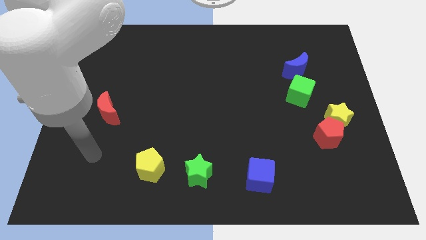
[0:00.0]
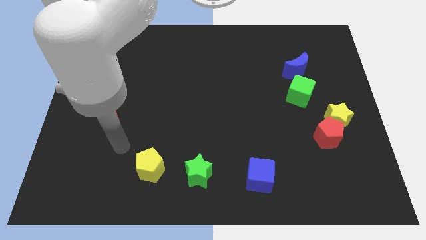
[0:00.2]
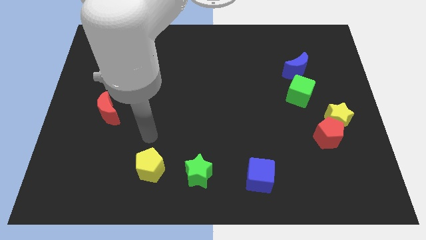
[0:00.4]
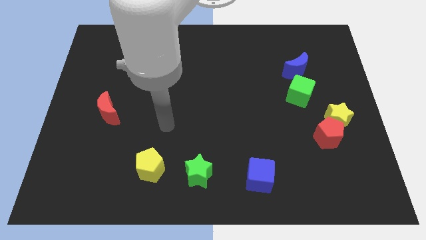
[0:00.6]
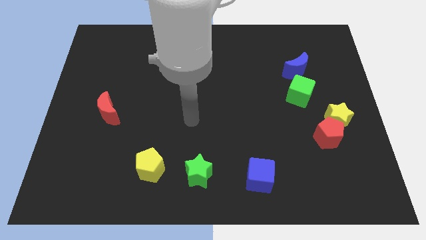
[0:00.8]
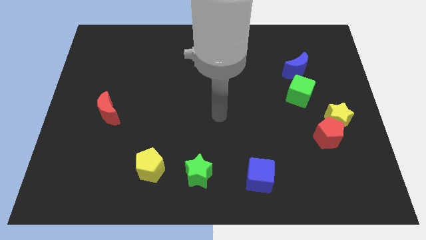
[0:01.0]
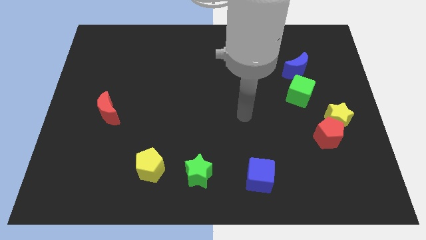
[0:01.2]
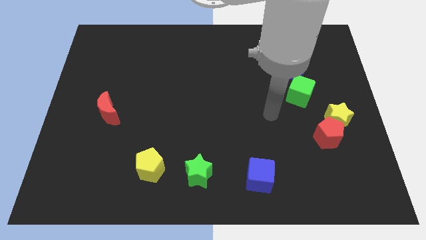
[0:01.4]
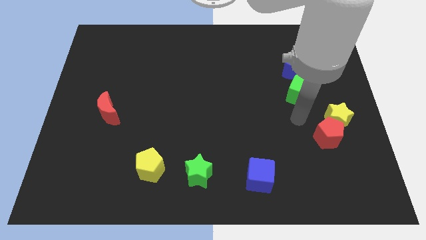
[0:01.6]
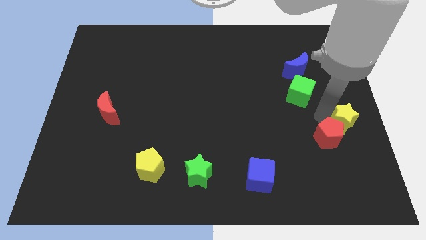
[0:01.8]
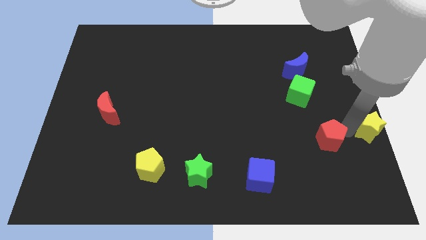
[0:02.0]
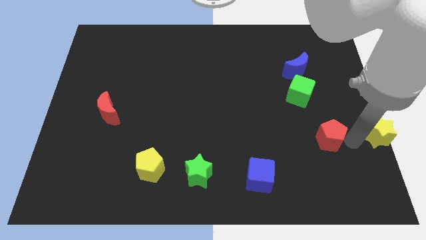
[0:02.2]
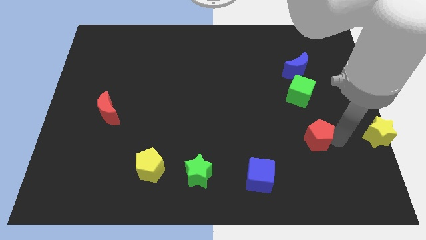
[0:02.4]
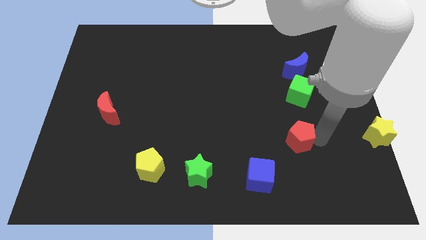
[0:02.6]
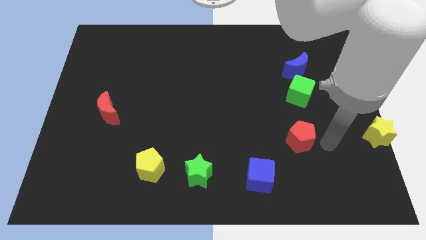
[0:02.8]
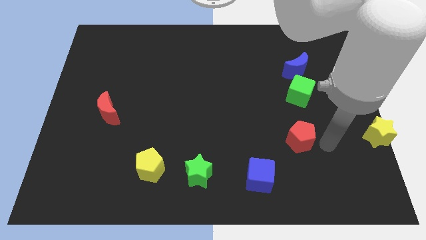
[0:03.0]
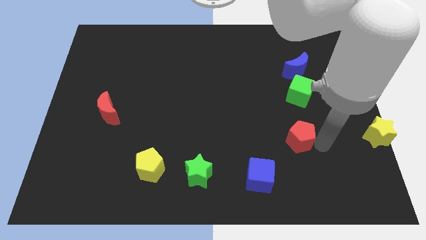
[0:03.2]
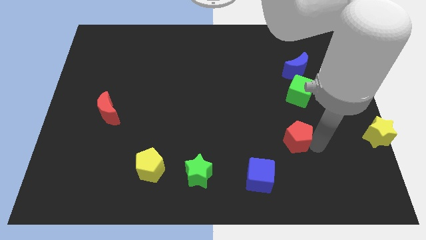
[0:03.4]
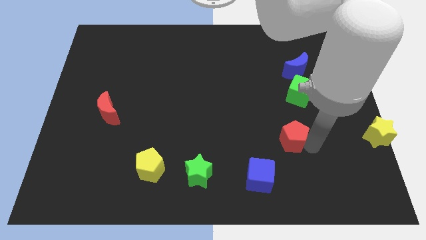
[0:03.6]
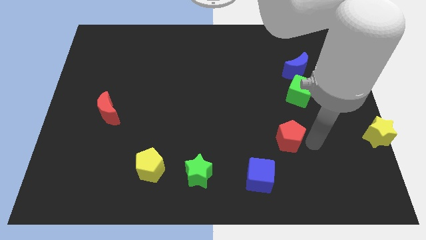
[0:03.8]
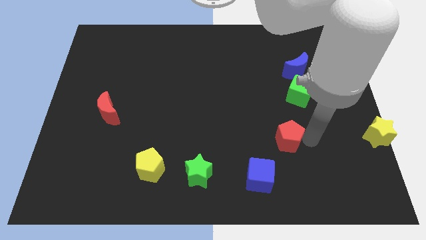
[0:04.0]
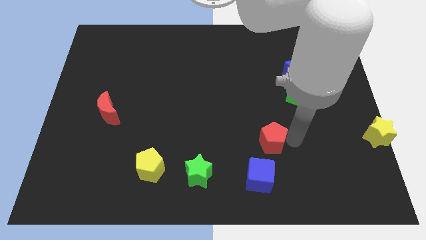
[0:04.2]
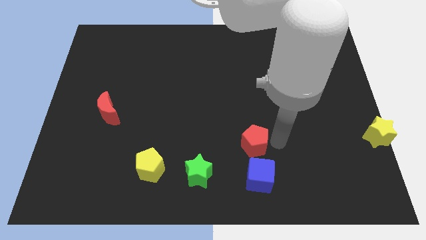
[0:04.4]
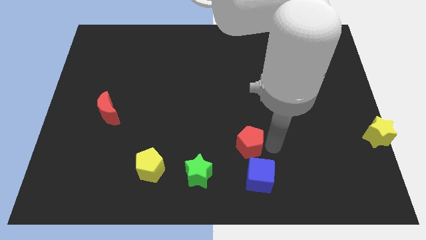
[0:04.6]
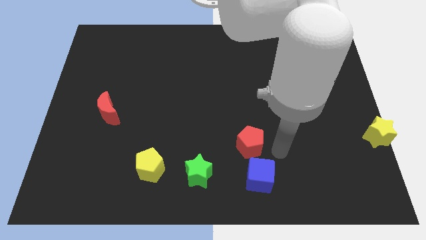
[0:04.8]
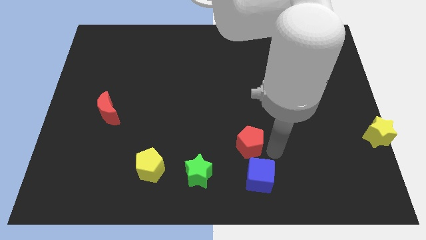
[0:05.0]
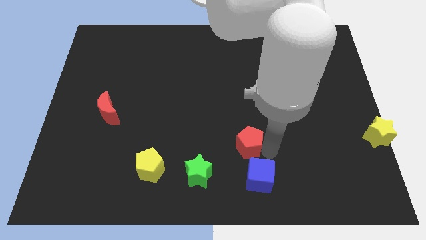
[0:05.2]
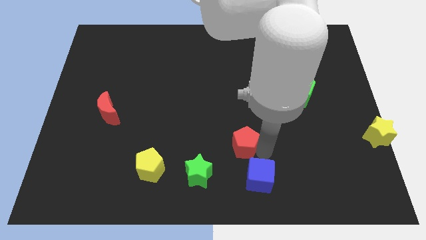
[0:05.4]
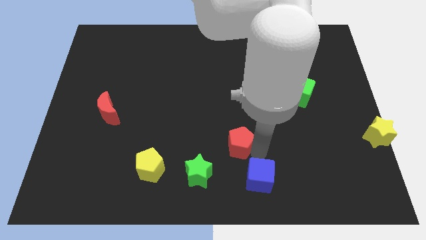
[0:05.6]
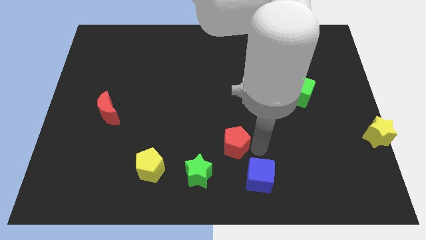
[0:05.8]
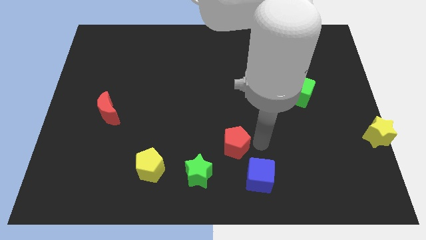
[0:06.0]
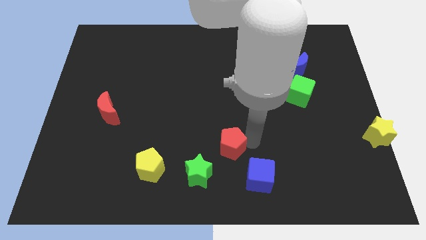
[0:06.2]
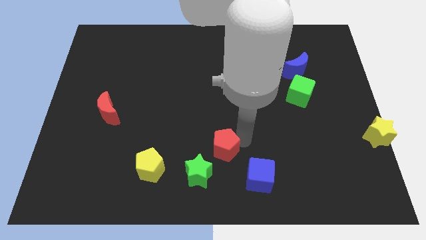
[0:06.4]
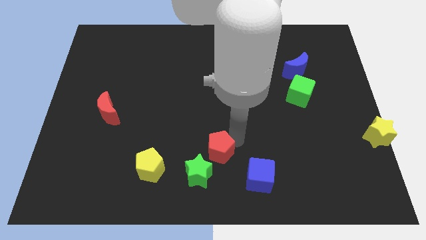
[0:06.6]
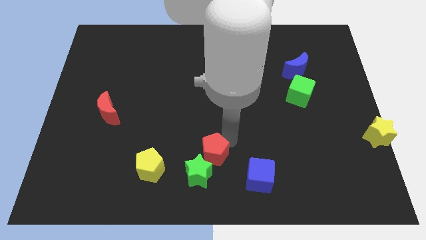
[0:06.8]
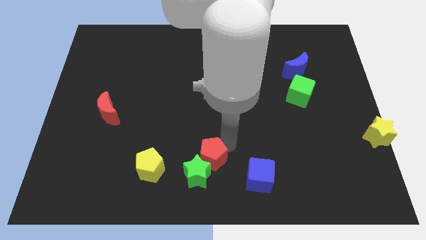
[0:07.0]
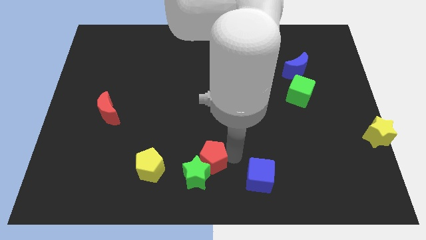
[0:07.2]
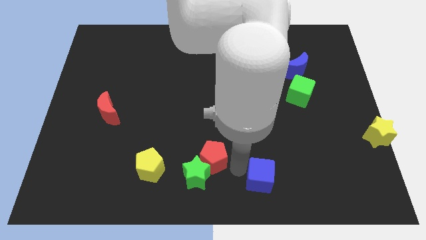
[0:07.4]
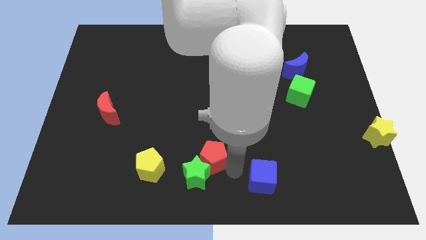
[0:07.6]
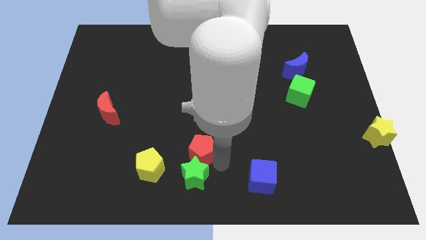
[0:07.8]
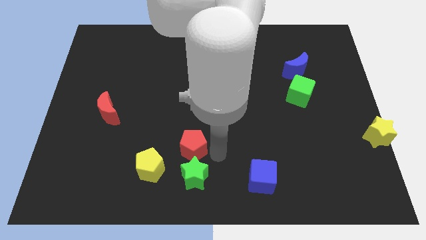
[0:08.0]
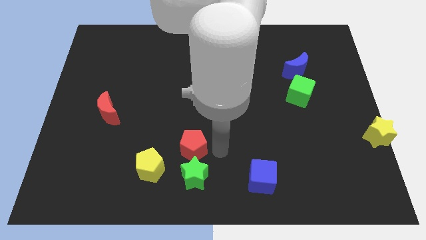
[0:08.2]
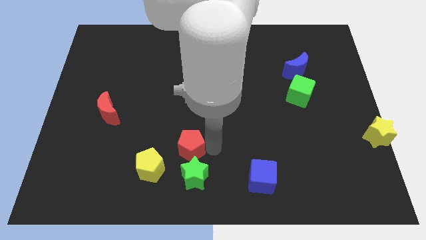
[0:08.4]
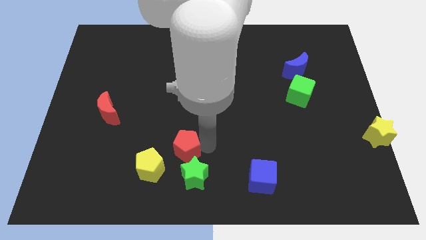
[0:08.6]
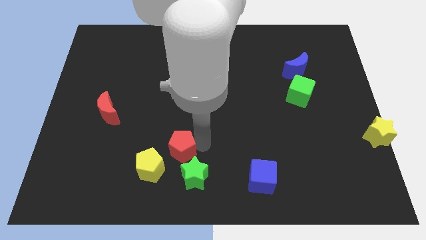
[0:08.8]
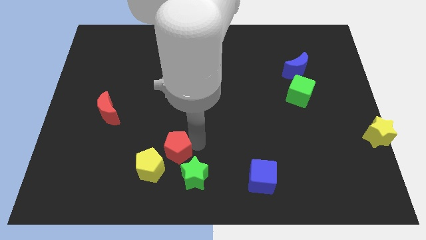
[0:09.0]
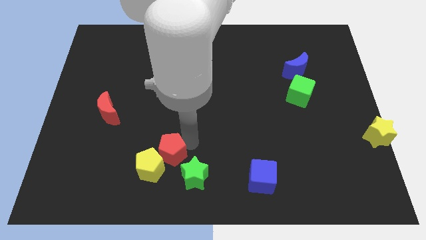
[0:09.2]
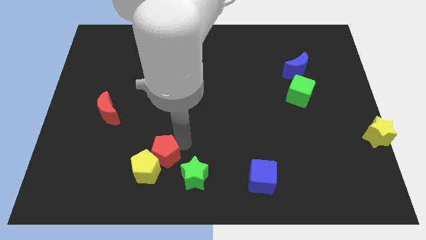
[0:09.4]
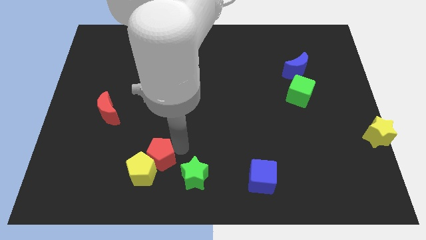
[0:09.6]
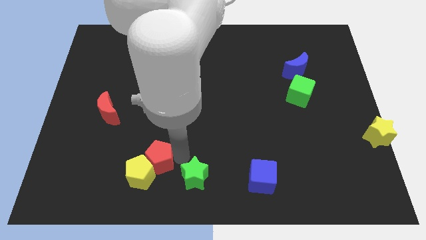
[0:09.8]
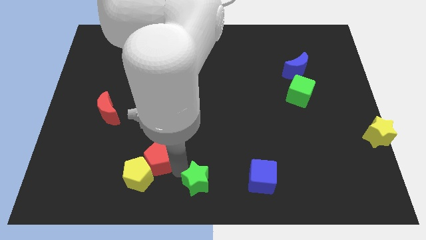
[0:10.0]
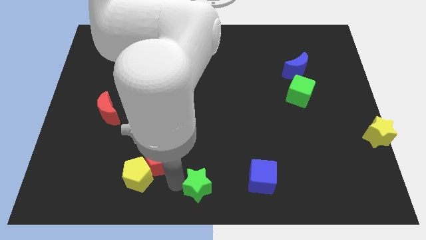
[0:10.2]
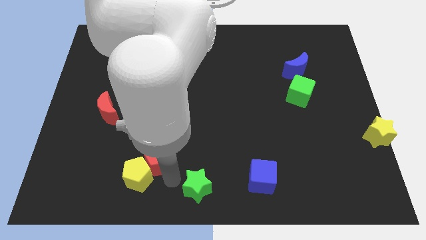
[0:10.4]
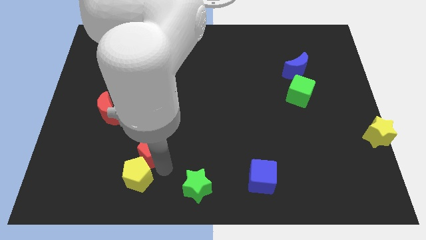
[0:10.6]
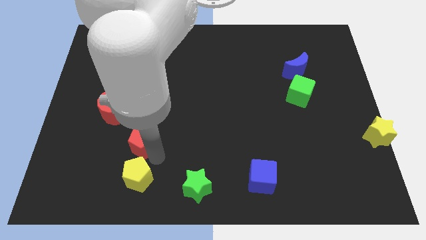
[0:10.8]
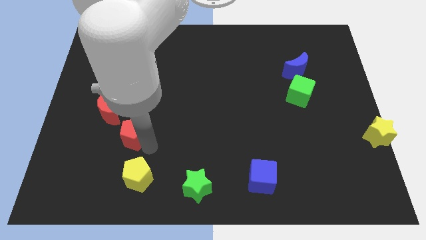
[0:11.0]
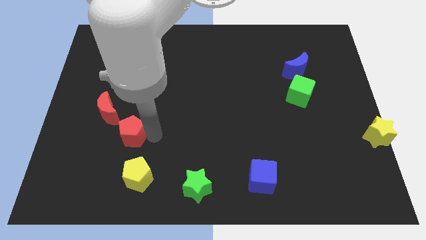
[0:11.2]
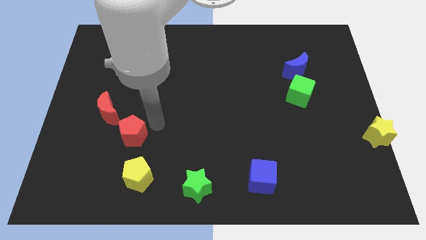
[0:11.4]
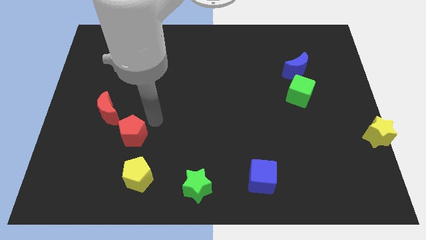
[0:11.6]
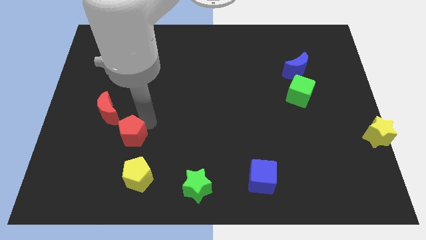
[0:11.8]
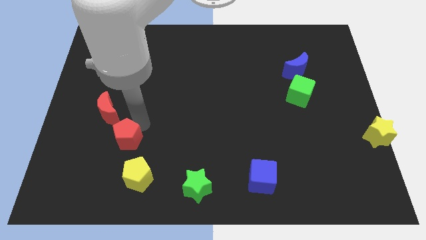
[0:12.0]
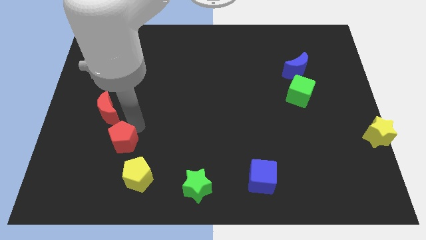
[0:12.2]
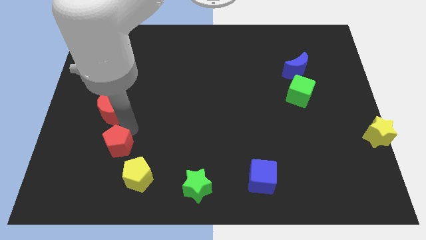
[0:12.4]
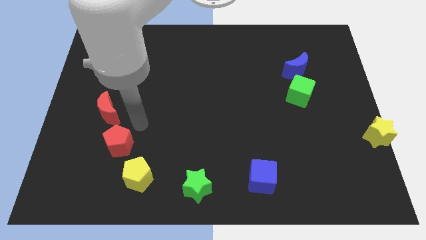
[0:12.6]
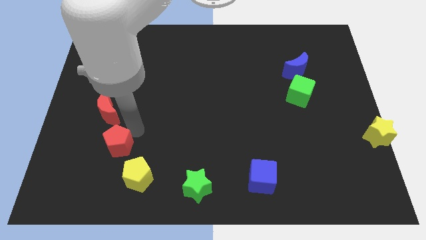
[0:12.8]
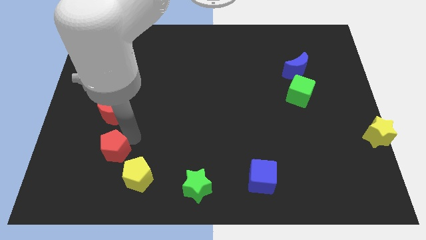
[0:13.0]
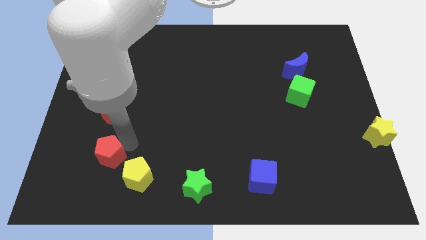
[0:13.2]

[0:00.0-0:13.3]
put the red pentagon to the left of the yellow pentagon

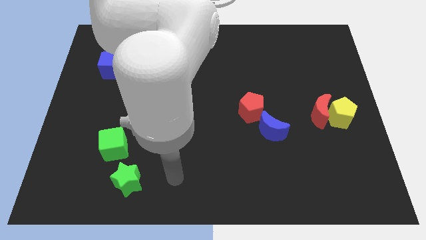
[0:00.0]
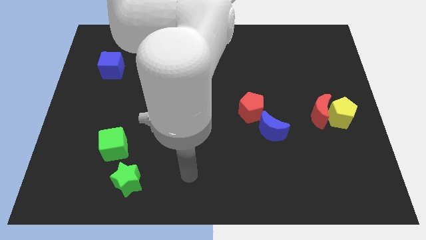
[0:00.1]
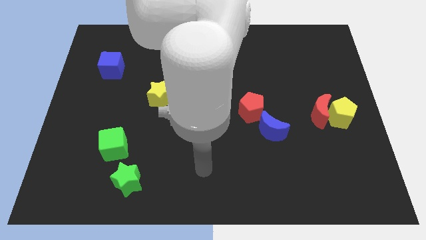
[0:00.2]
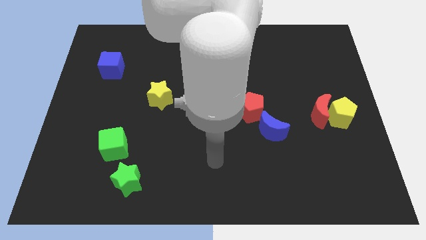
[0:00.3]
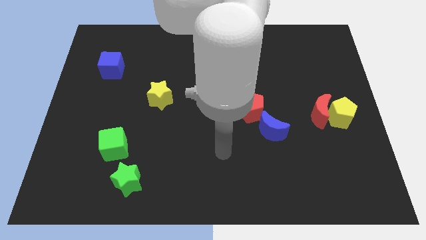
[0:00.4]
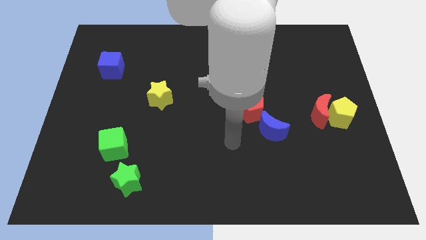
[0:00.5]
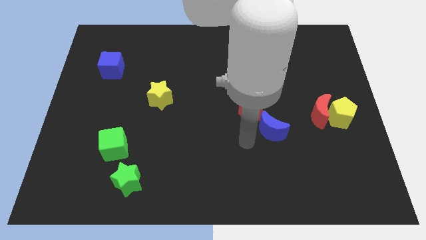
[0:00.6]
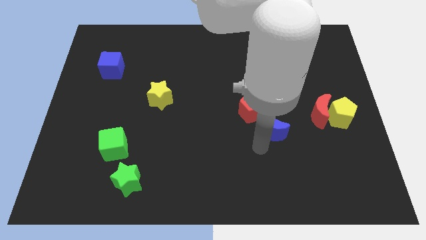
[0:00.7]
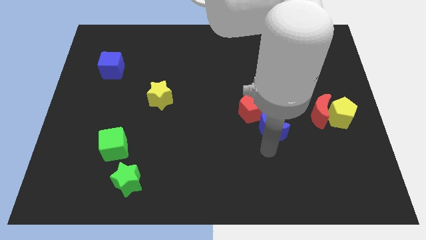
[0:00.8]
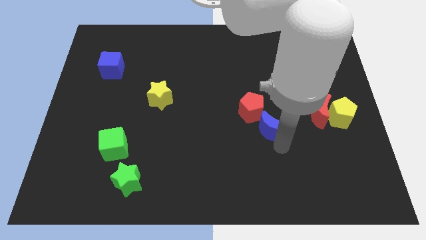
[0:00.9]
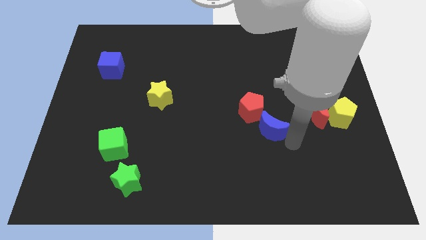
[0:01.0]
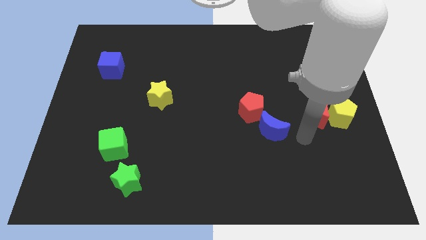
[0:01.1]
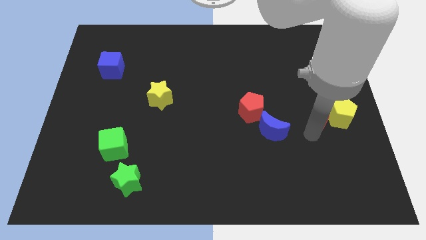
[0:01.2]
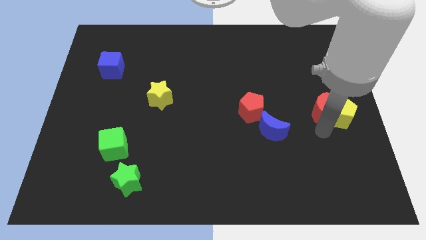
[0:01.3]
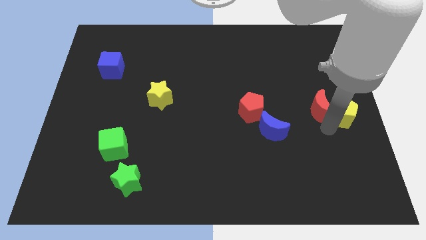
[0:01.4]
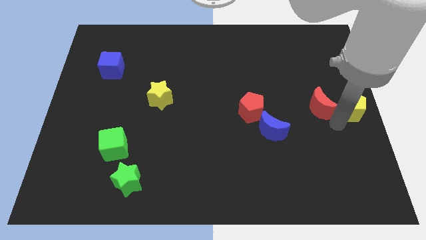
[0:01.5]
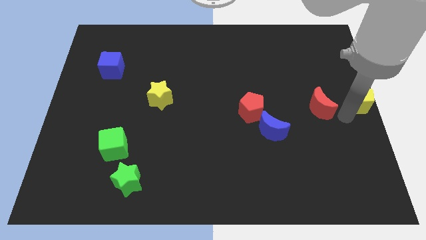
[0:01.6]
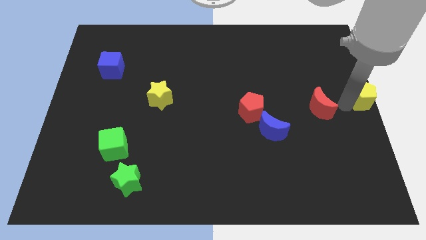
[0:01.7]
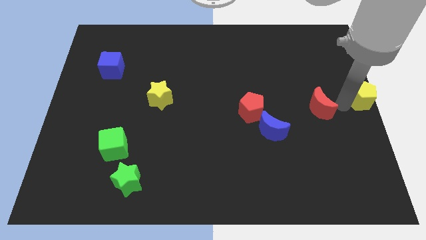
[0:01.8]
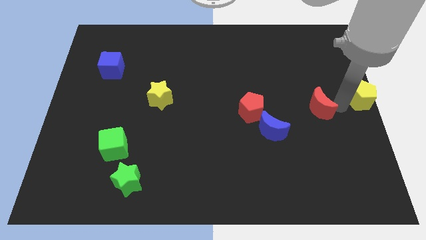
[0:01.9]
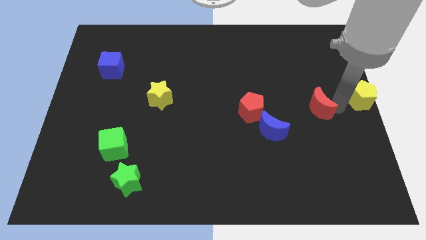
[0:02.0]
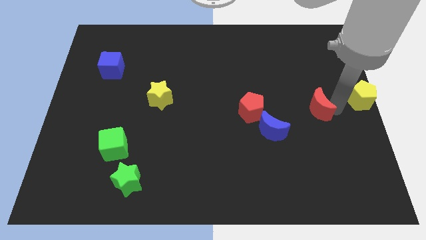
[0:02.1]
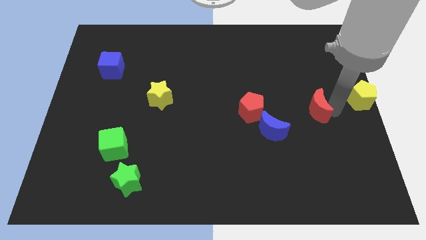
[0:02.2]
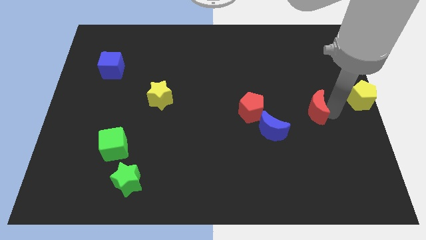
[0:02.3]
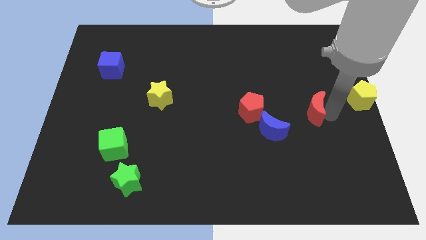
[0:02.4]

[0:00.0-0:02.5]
push the red moon to the top right of the blue moon
